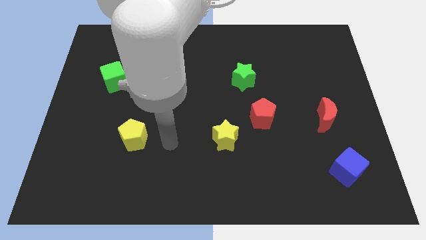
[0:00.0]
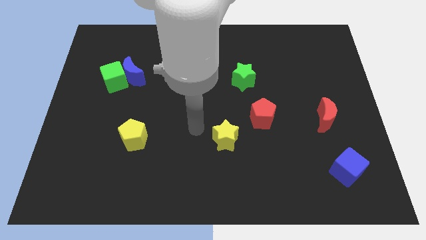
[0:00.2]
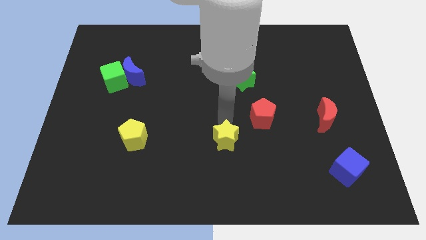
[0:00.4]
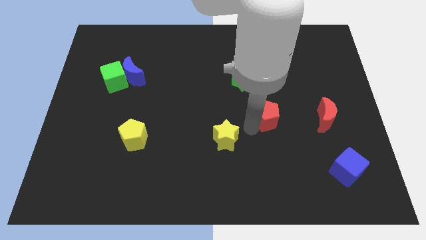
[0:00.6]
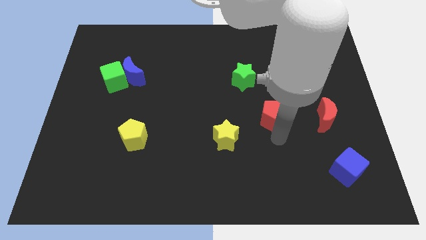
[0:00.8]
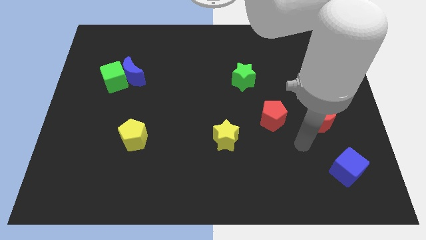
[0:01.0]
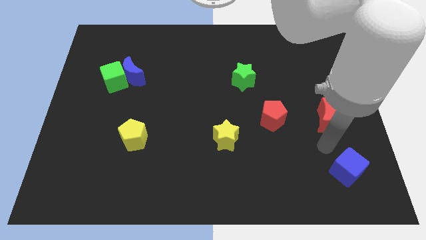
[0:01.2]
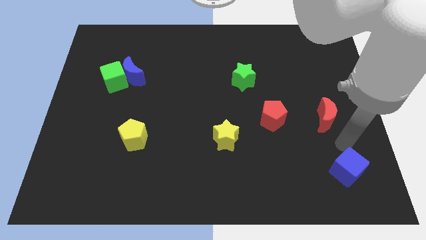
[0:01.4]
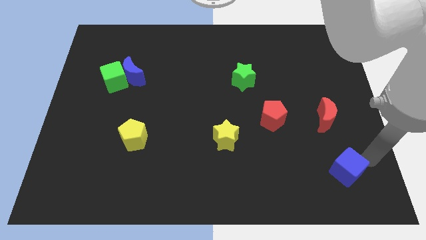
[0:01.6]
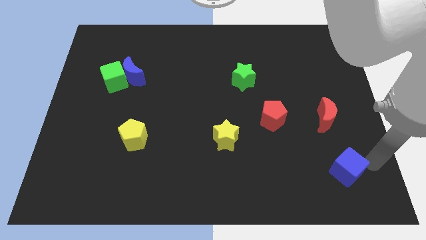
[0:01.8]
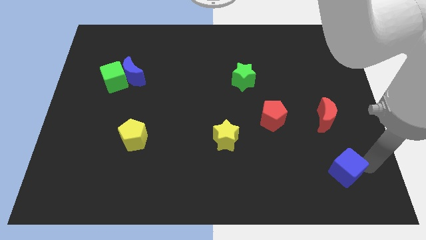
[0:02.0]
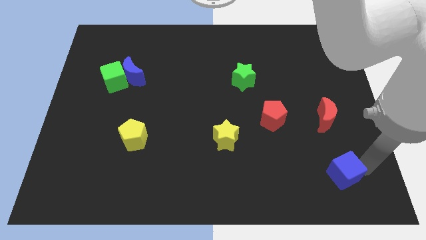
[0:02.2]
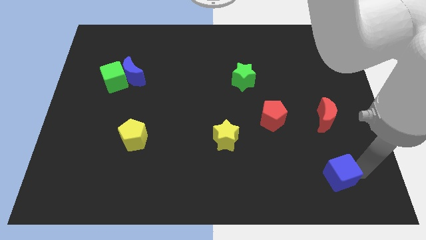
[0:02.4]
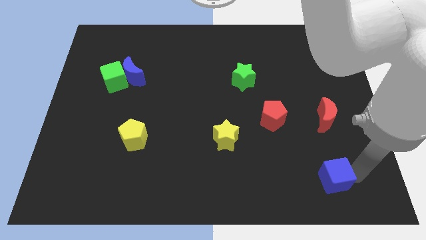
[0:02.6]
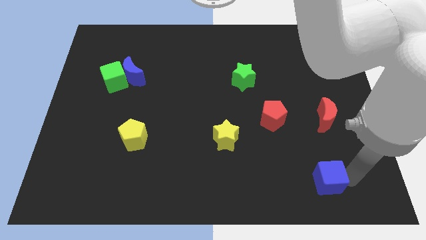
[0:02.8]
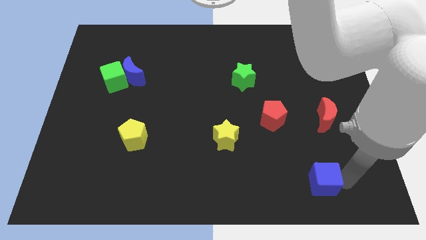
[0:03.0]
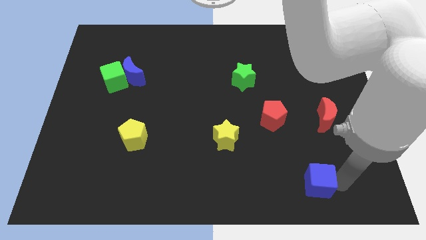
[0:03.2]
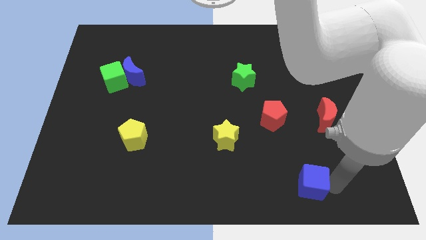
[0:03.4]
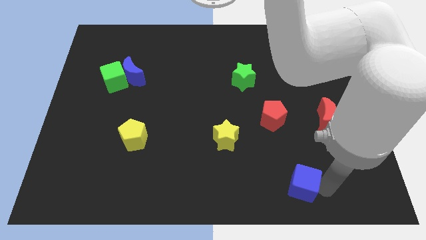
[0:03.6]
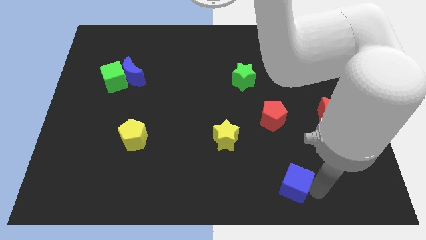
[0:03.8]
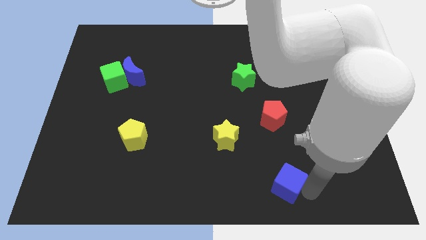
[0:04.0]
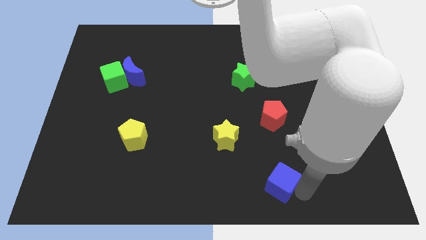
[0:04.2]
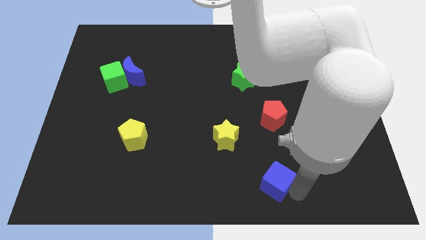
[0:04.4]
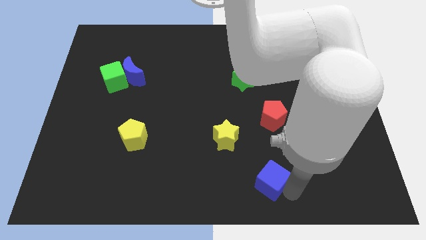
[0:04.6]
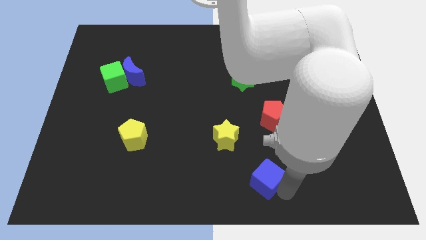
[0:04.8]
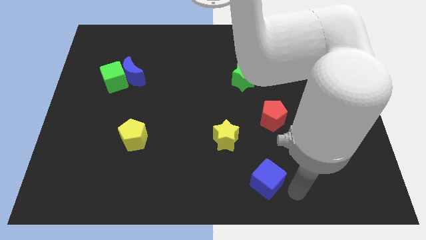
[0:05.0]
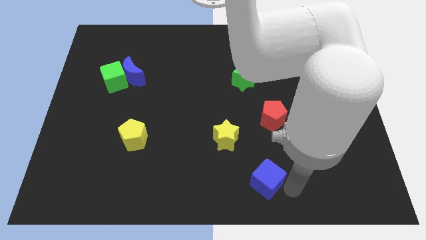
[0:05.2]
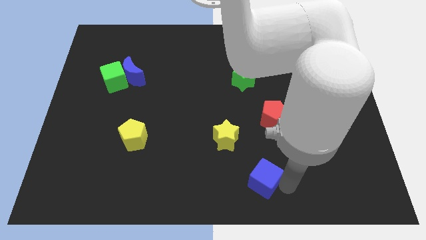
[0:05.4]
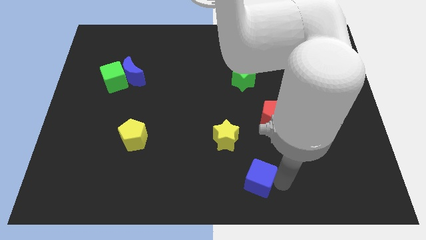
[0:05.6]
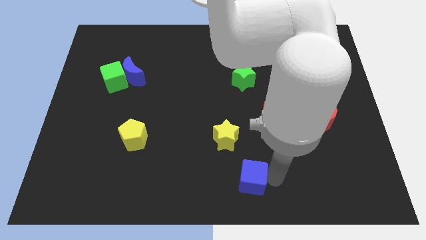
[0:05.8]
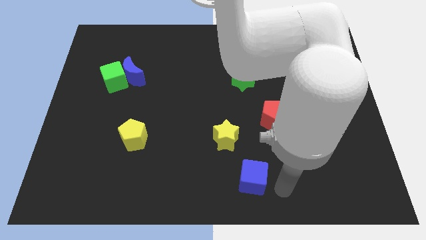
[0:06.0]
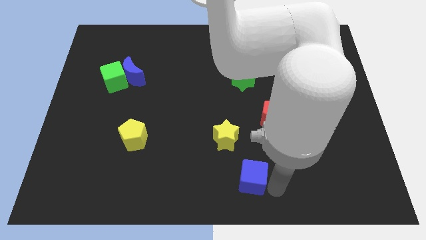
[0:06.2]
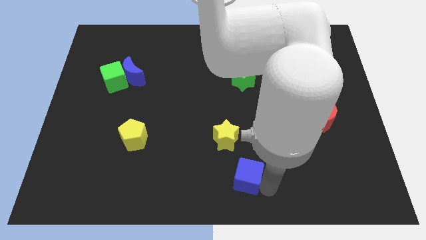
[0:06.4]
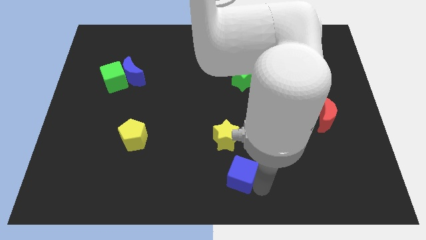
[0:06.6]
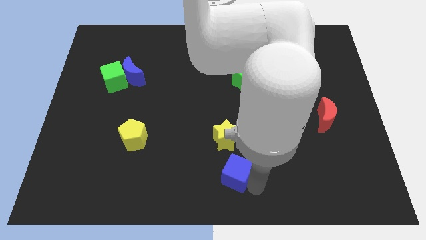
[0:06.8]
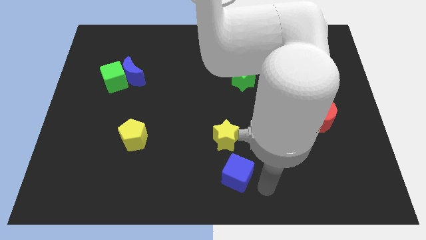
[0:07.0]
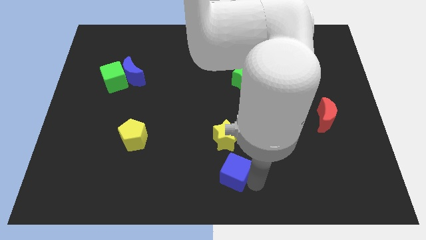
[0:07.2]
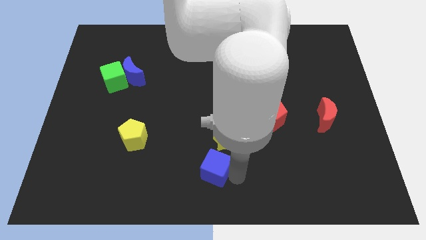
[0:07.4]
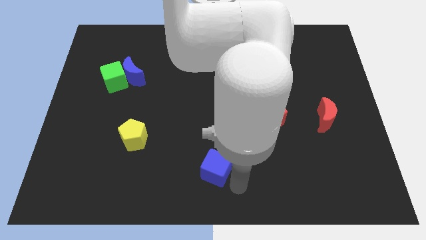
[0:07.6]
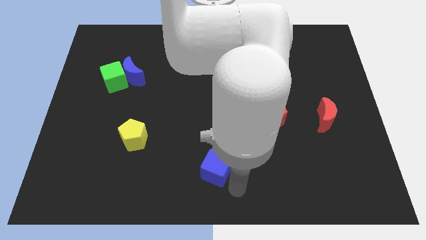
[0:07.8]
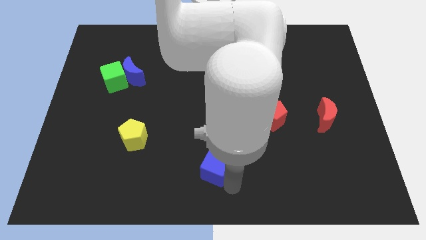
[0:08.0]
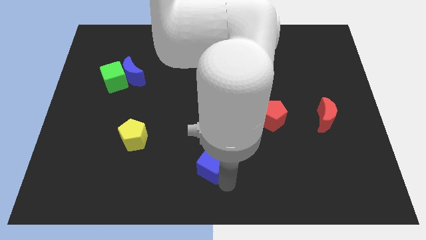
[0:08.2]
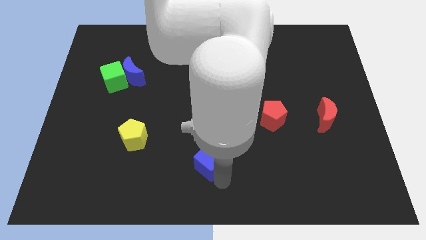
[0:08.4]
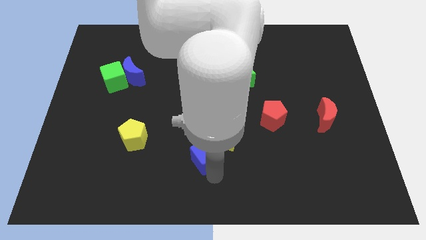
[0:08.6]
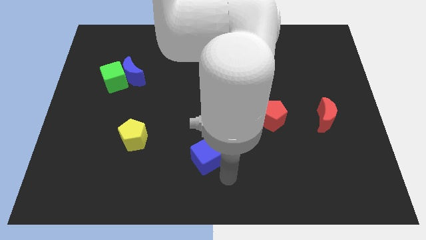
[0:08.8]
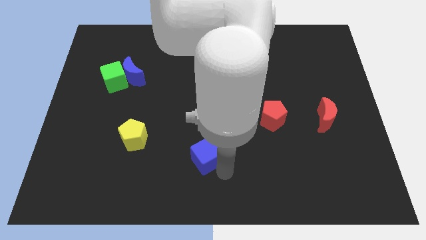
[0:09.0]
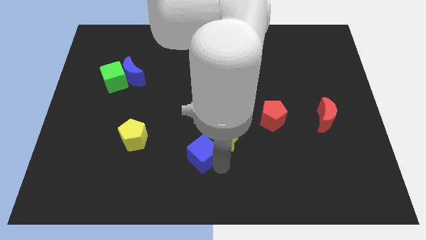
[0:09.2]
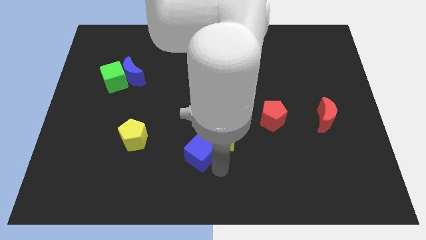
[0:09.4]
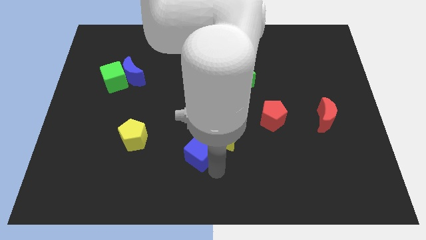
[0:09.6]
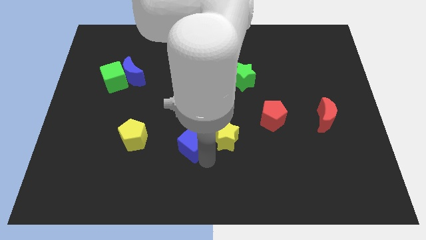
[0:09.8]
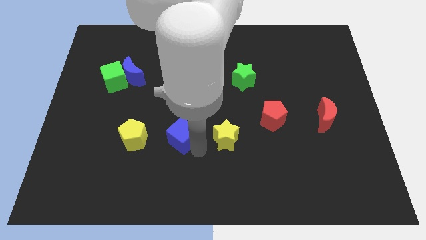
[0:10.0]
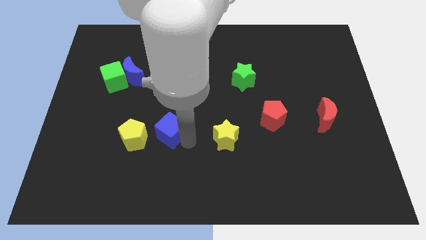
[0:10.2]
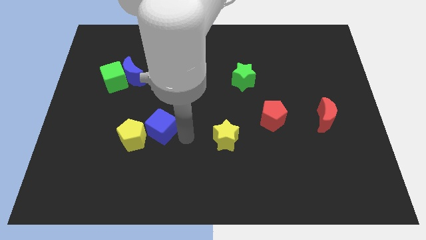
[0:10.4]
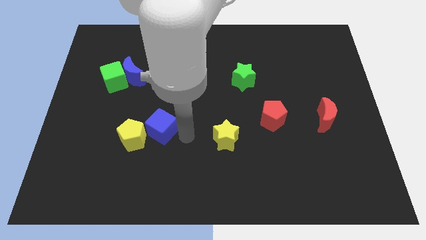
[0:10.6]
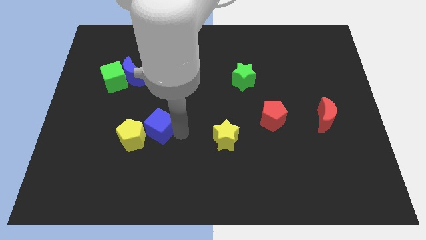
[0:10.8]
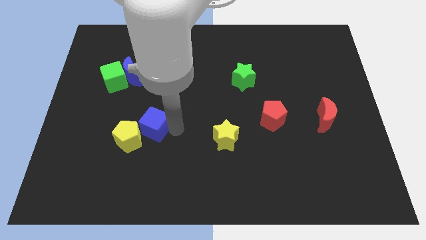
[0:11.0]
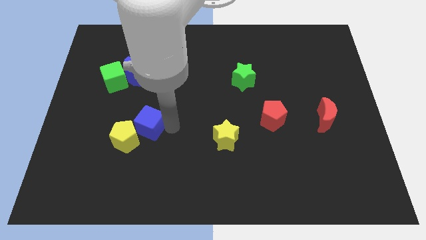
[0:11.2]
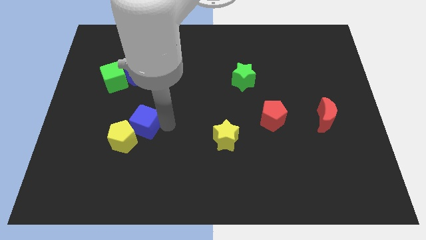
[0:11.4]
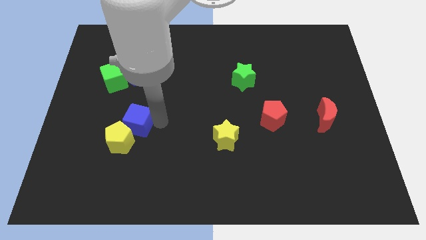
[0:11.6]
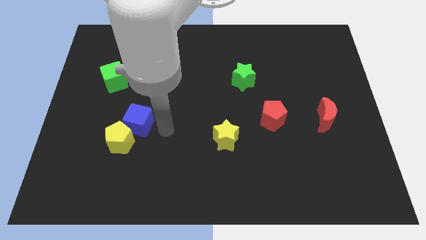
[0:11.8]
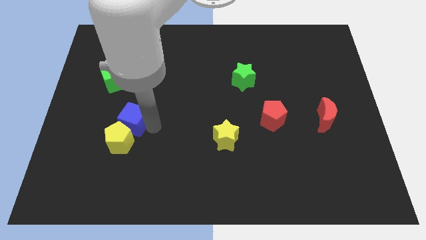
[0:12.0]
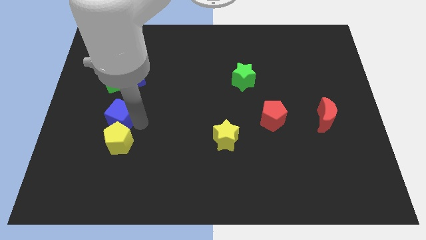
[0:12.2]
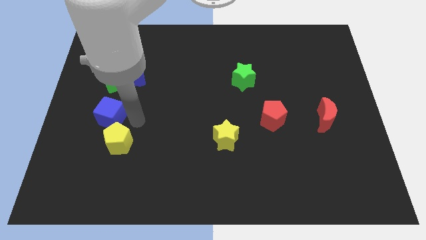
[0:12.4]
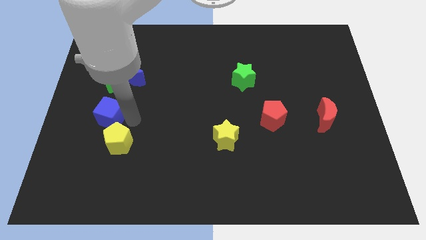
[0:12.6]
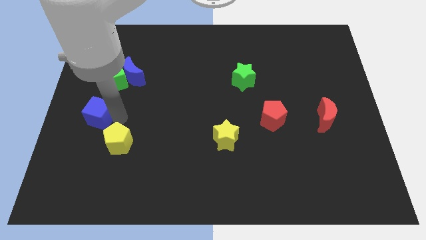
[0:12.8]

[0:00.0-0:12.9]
move the blue cube to the left side of the board

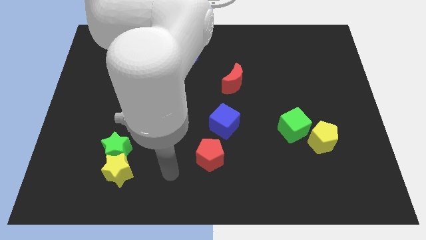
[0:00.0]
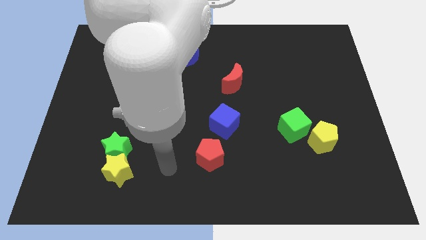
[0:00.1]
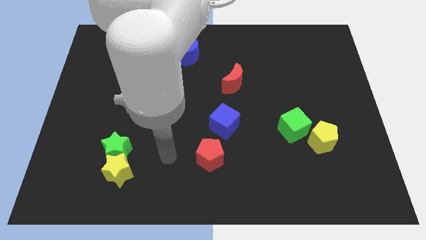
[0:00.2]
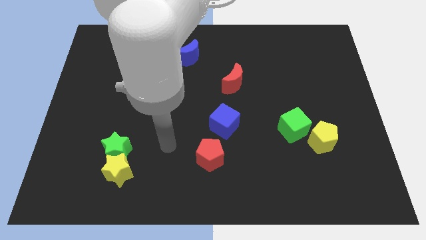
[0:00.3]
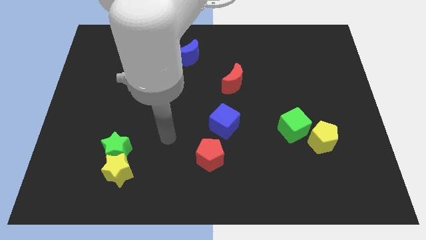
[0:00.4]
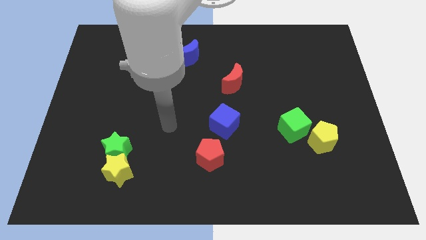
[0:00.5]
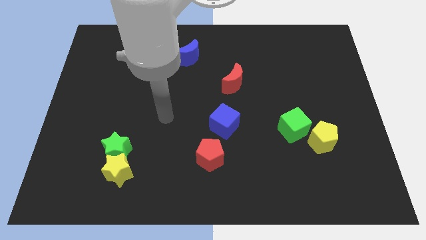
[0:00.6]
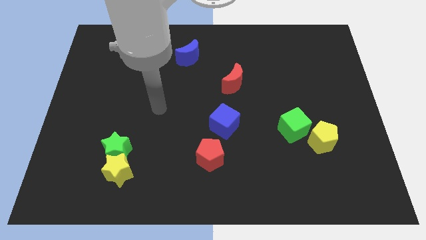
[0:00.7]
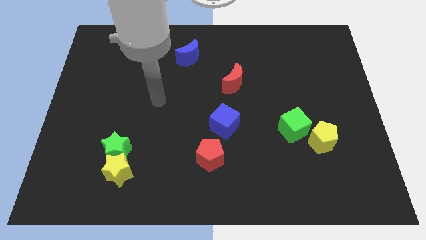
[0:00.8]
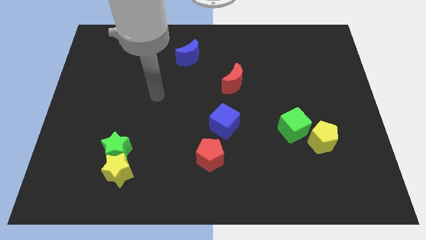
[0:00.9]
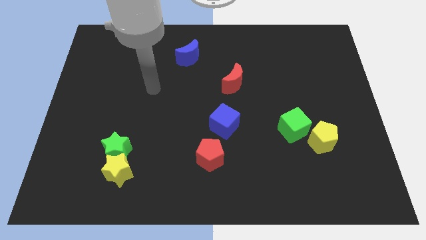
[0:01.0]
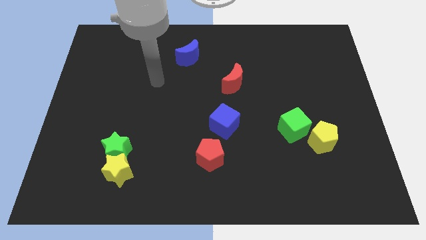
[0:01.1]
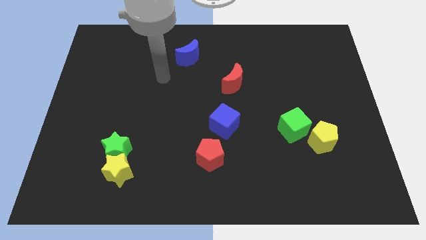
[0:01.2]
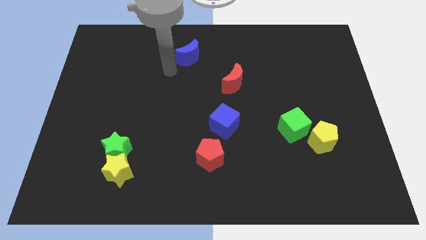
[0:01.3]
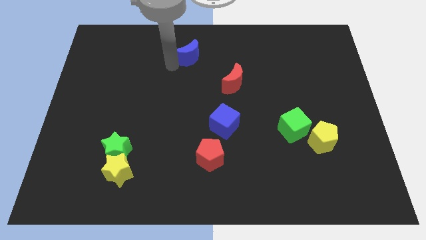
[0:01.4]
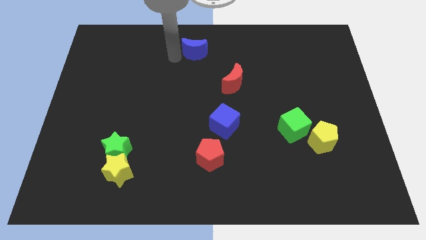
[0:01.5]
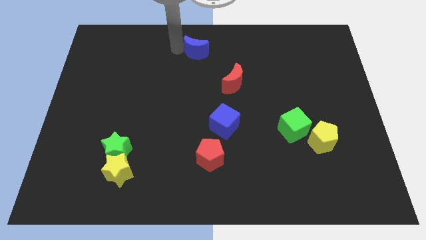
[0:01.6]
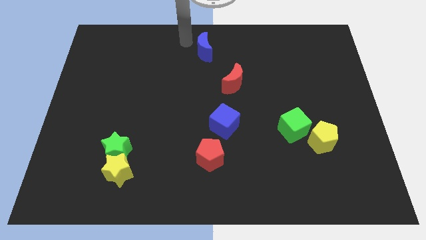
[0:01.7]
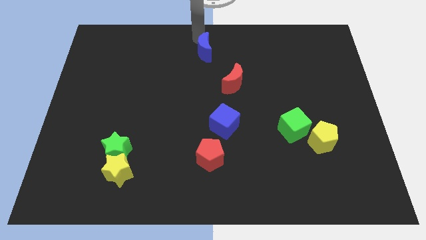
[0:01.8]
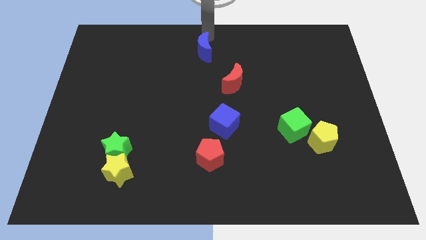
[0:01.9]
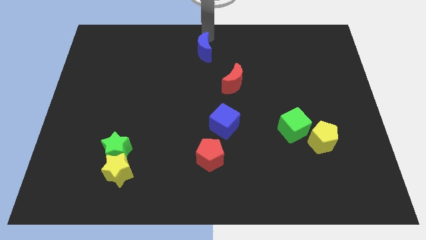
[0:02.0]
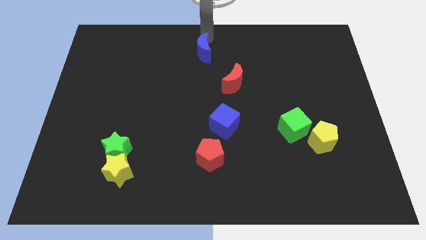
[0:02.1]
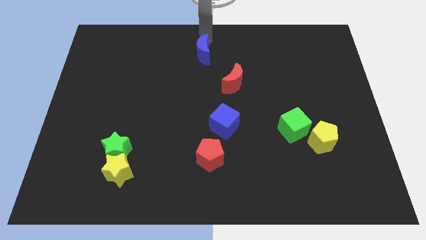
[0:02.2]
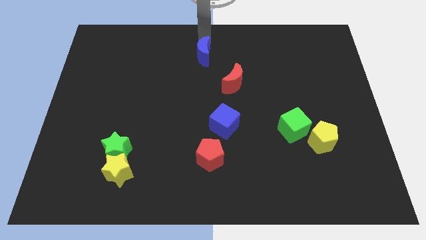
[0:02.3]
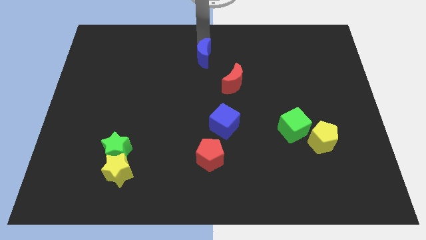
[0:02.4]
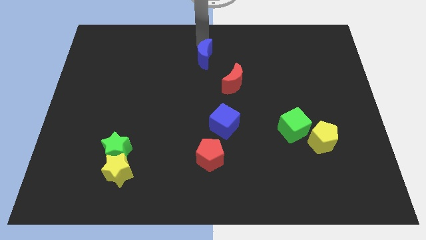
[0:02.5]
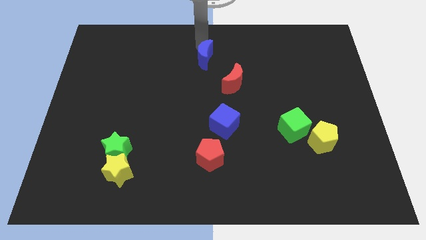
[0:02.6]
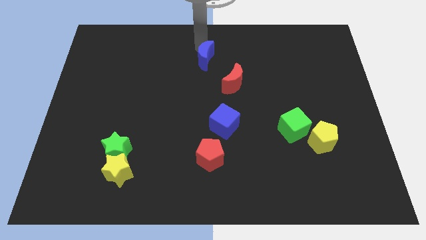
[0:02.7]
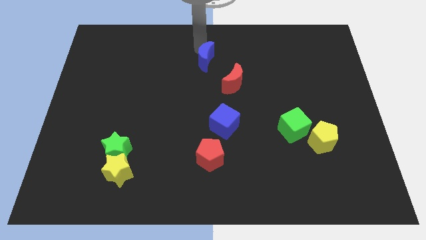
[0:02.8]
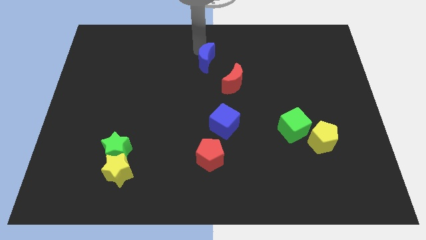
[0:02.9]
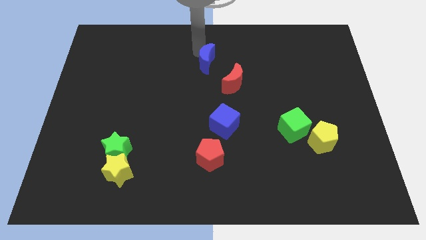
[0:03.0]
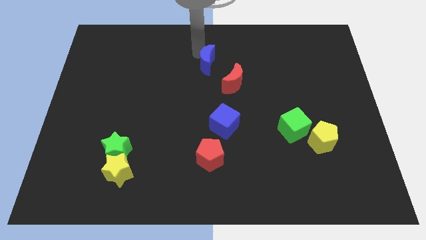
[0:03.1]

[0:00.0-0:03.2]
put the blue moon to the center of the board
